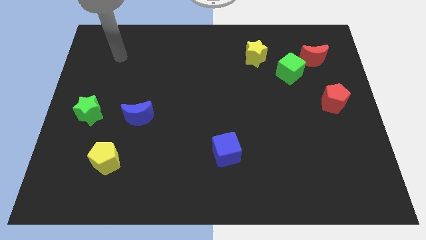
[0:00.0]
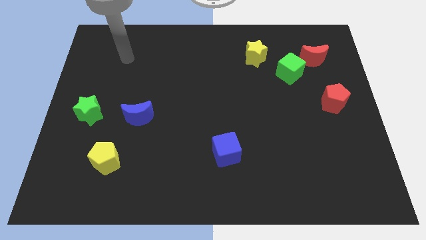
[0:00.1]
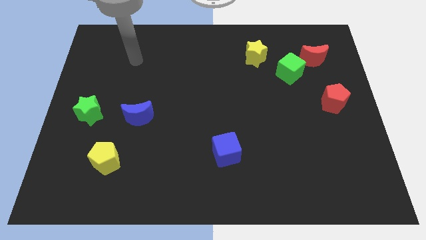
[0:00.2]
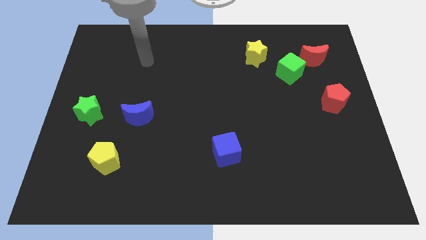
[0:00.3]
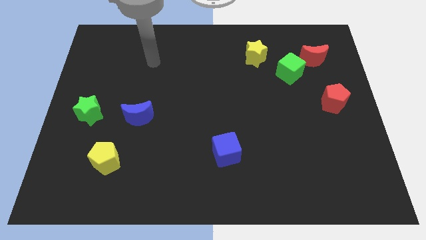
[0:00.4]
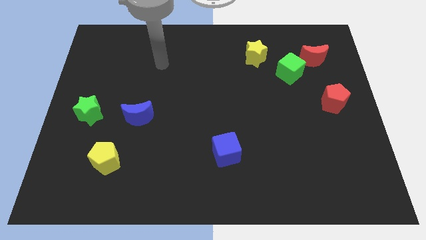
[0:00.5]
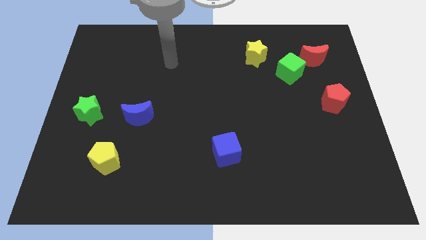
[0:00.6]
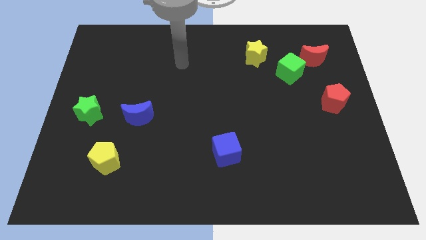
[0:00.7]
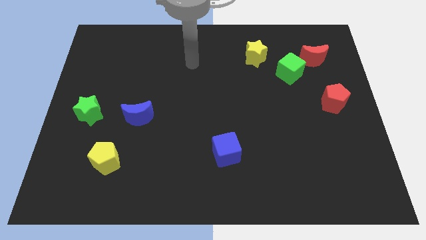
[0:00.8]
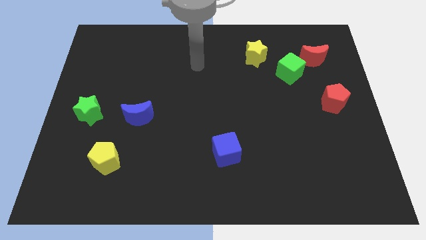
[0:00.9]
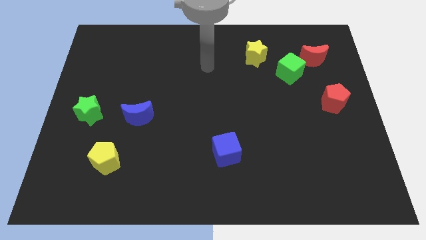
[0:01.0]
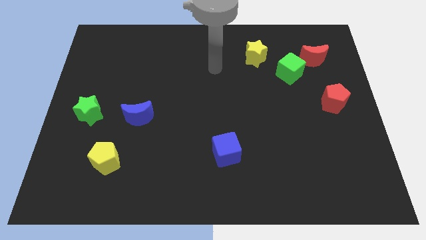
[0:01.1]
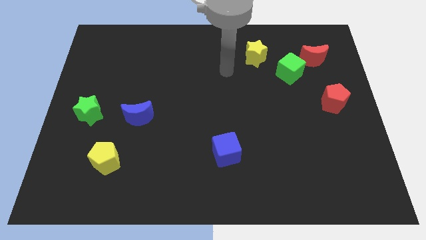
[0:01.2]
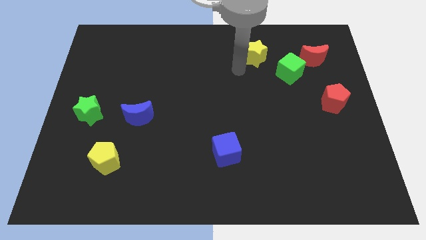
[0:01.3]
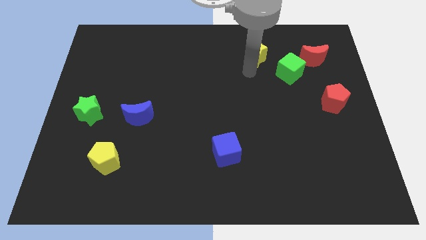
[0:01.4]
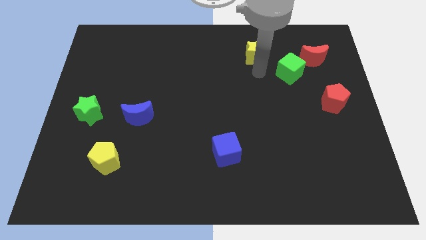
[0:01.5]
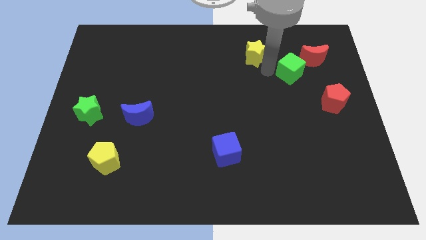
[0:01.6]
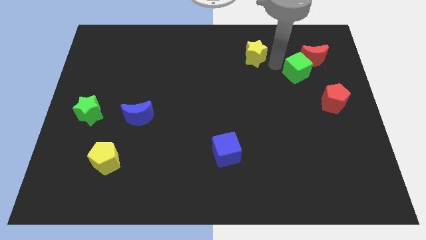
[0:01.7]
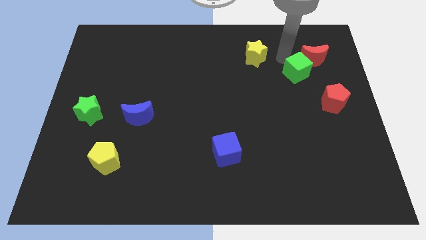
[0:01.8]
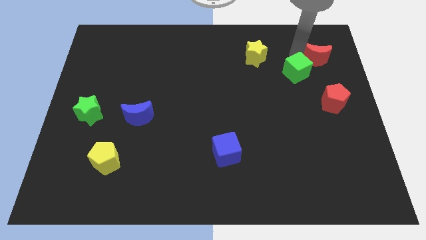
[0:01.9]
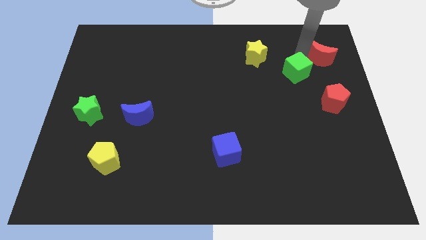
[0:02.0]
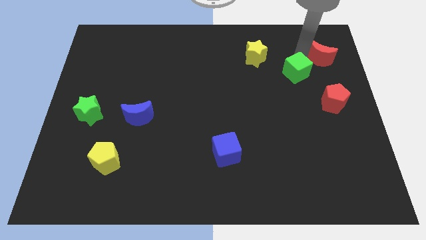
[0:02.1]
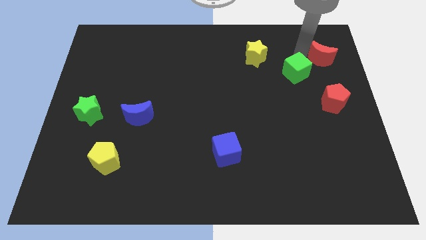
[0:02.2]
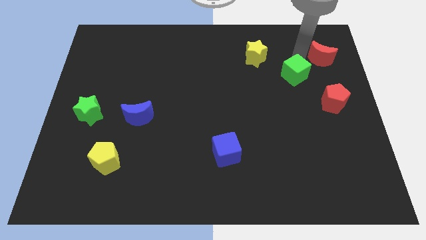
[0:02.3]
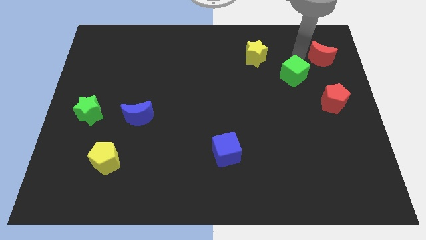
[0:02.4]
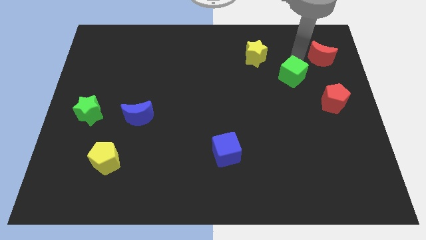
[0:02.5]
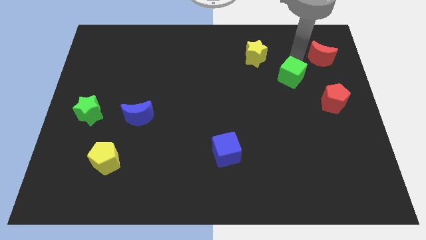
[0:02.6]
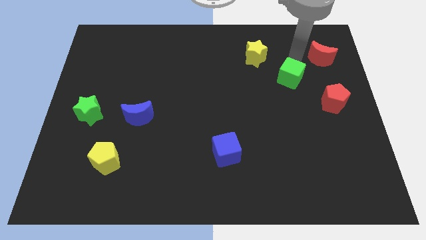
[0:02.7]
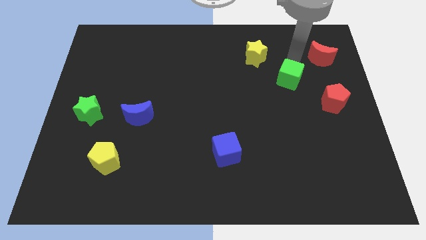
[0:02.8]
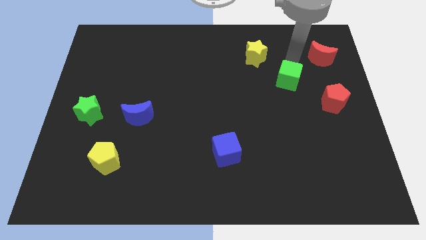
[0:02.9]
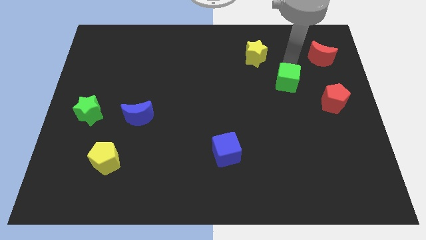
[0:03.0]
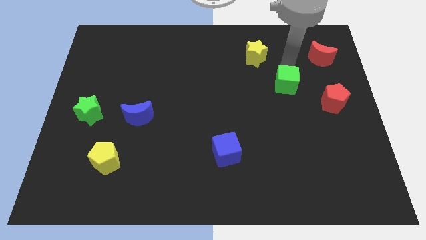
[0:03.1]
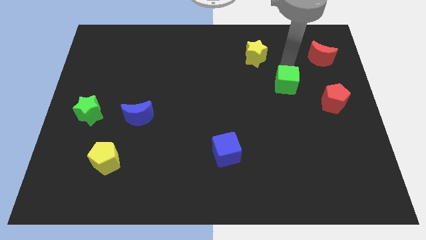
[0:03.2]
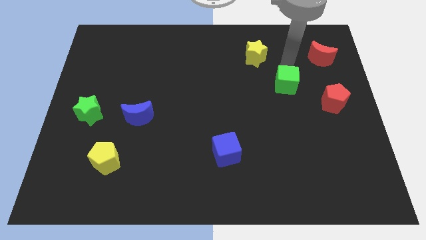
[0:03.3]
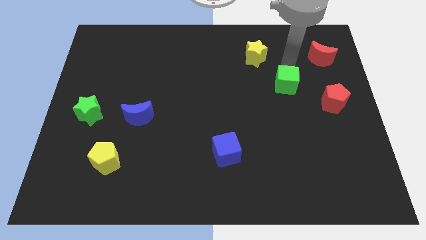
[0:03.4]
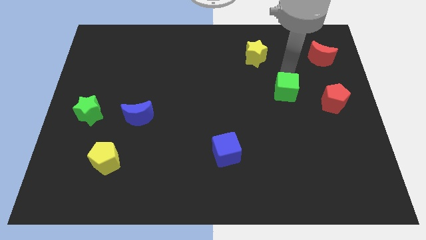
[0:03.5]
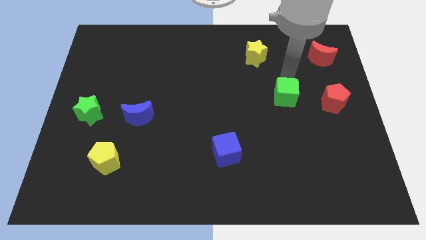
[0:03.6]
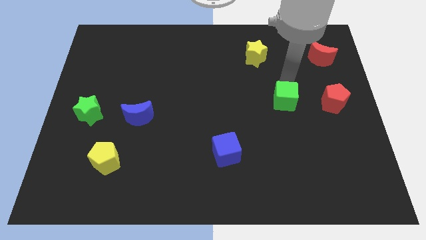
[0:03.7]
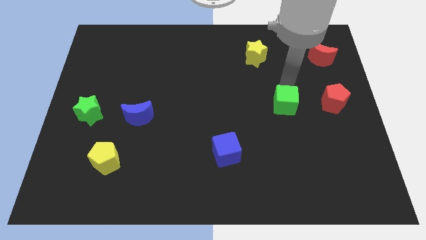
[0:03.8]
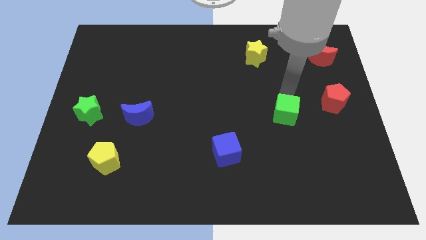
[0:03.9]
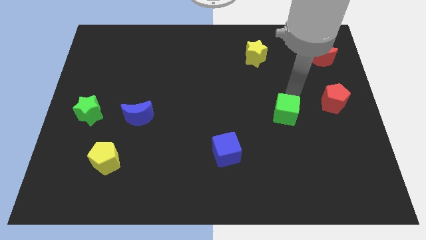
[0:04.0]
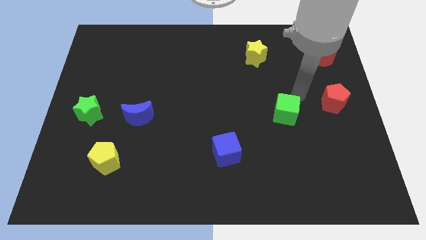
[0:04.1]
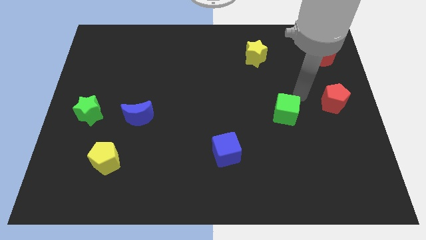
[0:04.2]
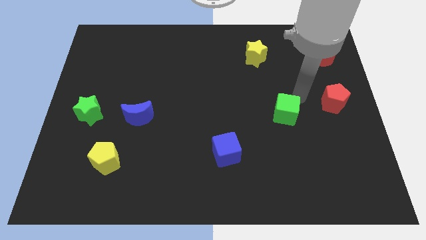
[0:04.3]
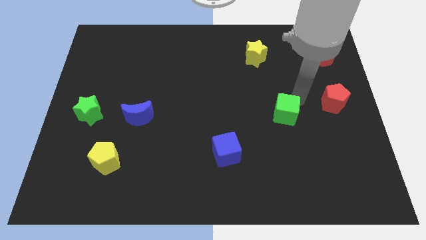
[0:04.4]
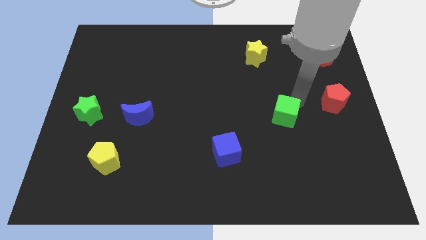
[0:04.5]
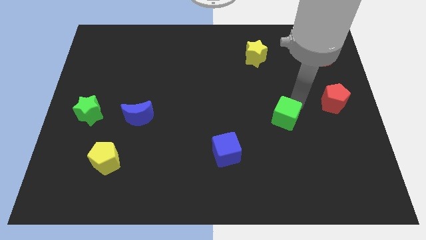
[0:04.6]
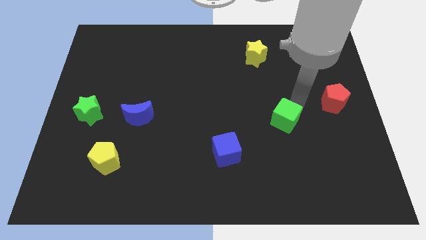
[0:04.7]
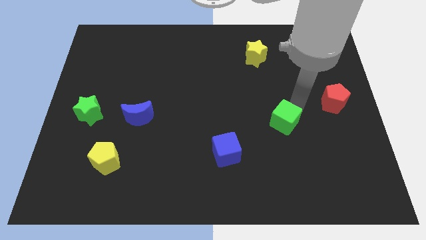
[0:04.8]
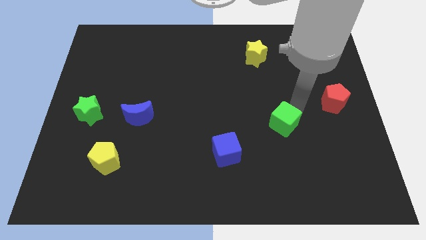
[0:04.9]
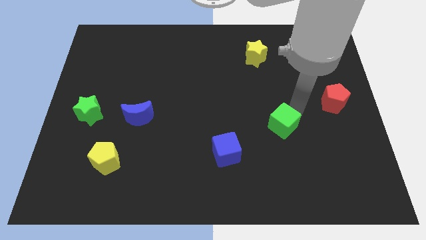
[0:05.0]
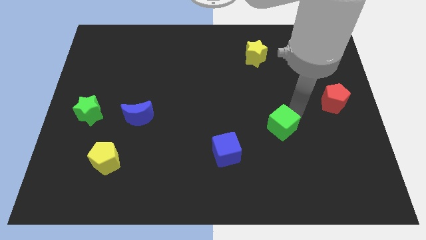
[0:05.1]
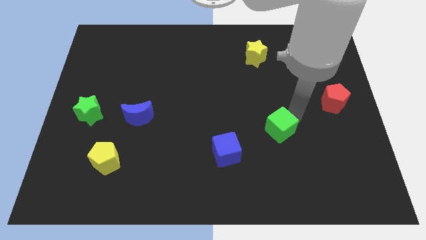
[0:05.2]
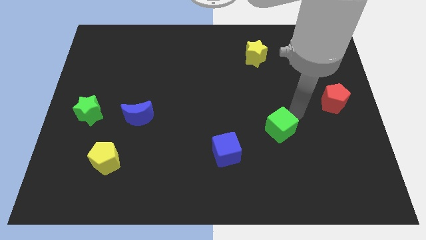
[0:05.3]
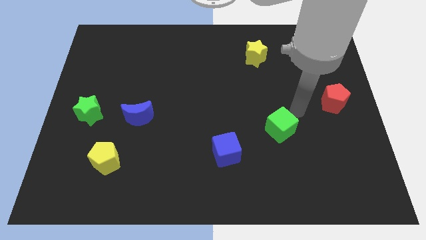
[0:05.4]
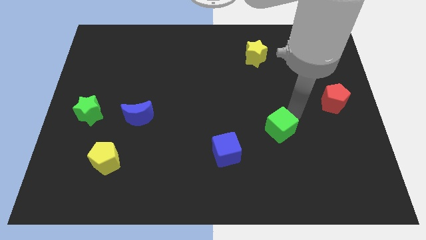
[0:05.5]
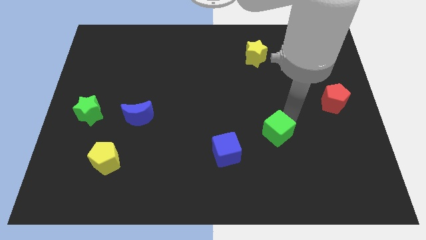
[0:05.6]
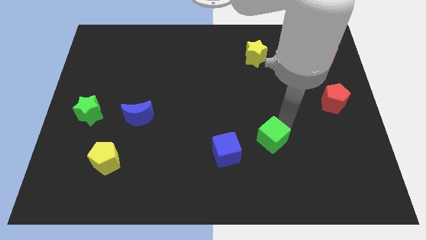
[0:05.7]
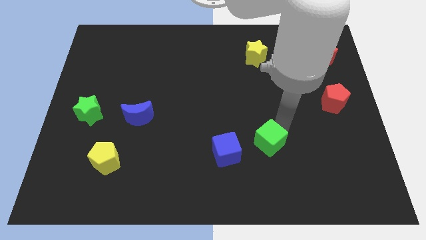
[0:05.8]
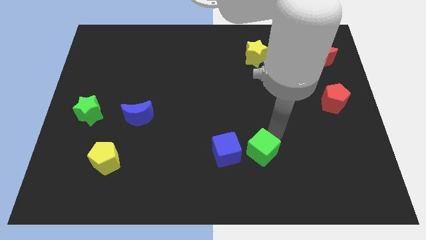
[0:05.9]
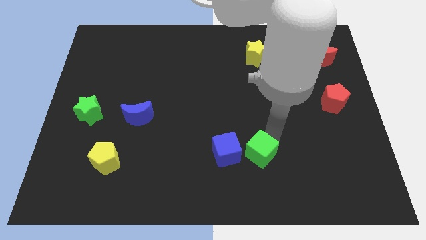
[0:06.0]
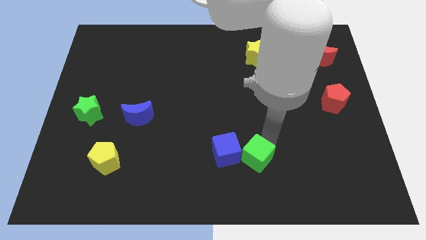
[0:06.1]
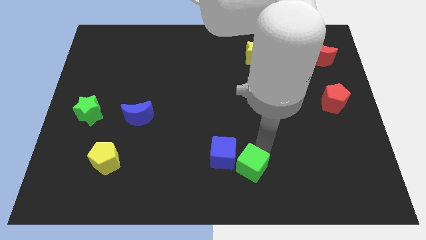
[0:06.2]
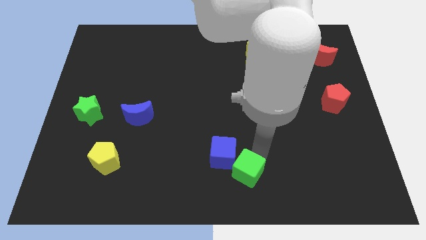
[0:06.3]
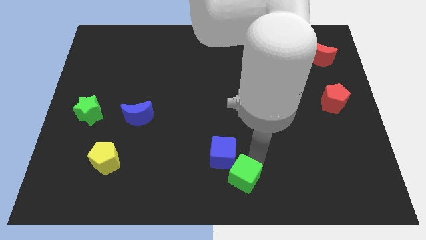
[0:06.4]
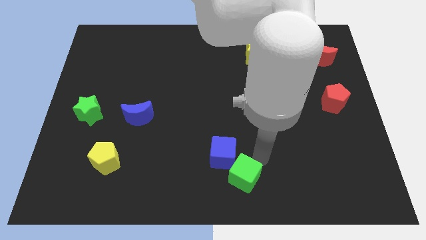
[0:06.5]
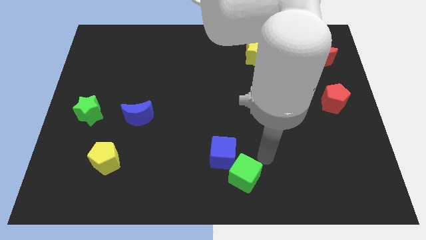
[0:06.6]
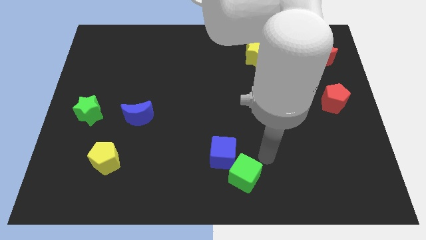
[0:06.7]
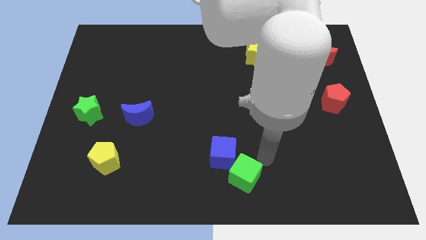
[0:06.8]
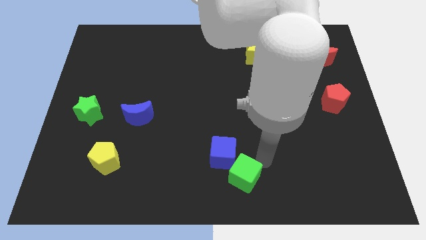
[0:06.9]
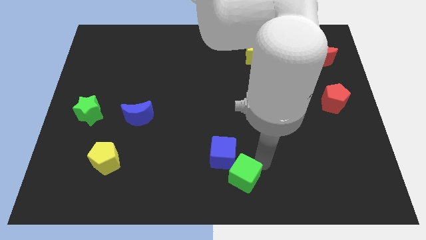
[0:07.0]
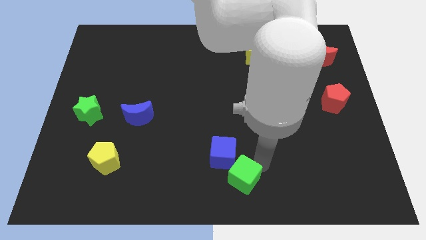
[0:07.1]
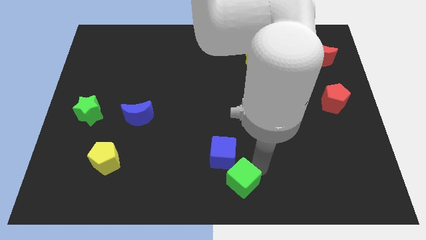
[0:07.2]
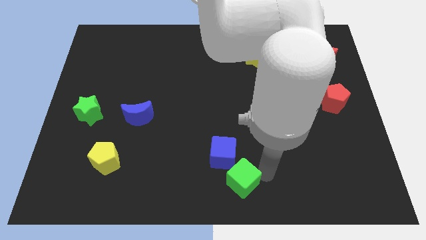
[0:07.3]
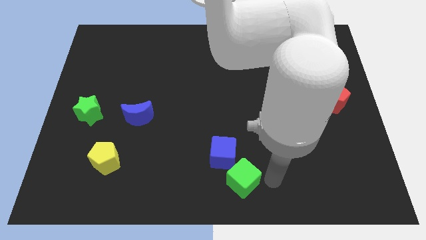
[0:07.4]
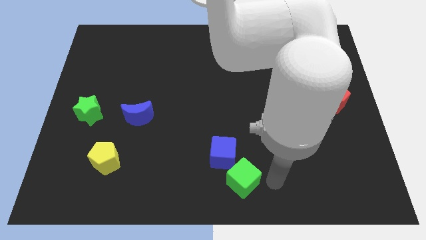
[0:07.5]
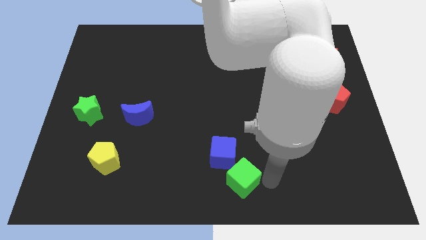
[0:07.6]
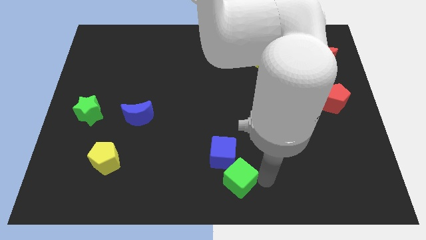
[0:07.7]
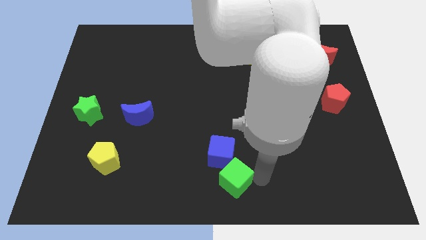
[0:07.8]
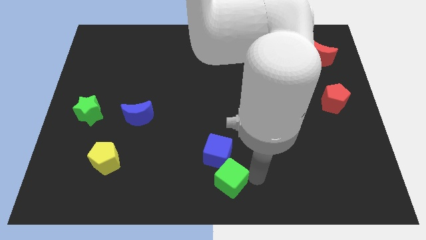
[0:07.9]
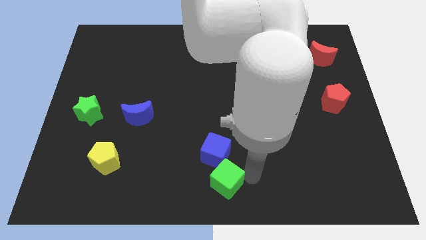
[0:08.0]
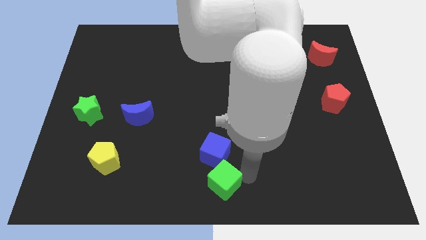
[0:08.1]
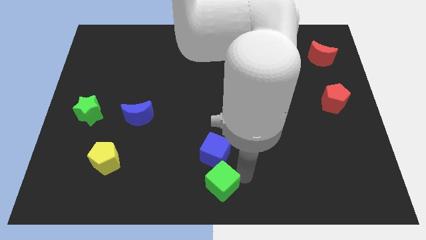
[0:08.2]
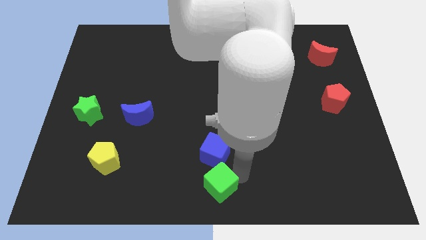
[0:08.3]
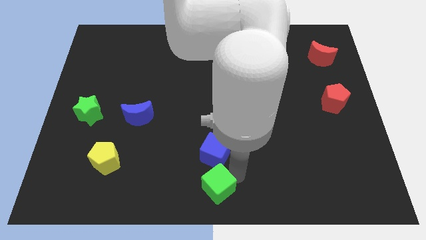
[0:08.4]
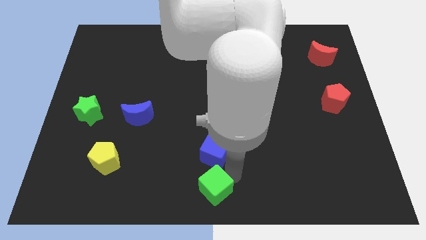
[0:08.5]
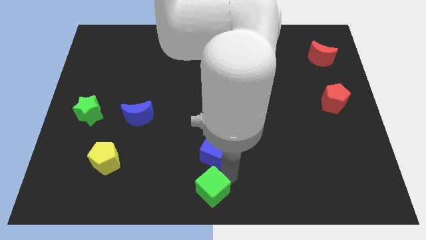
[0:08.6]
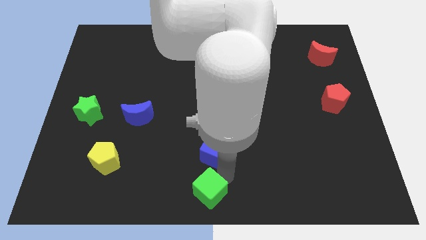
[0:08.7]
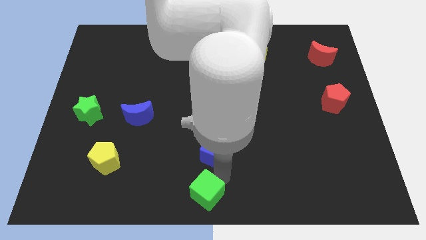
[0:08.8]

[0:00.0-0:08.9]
push the green cube to the bottom left of the blue cube
